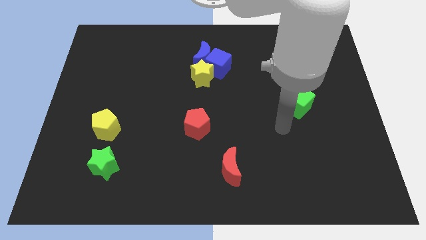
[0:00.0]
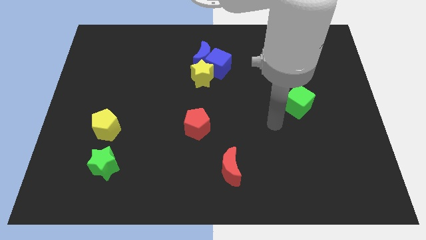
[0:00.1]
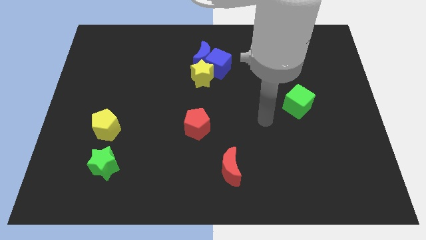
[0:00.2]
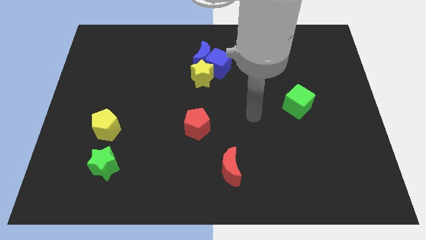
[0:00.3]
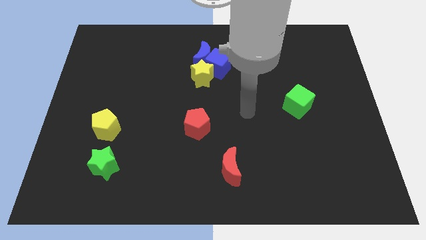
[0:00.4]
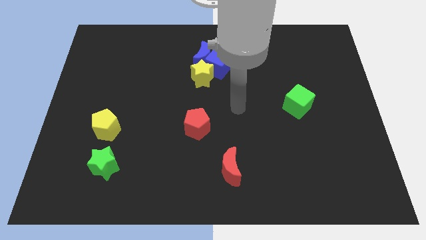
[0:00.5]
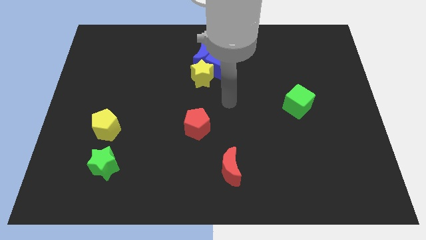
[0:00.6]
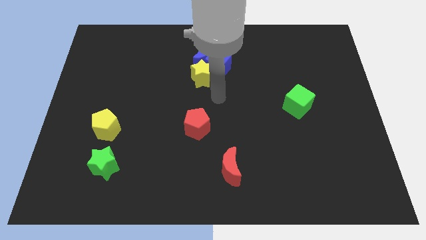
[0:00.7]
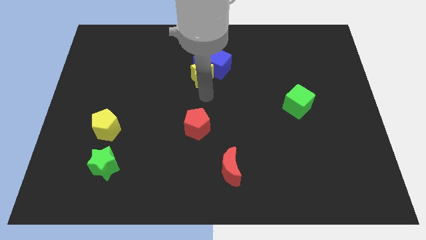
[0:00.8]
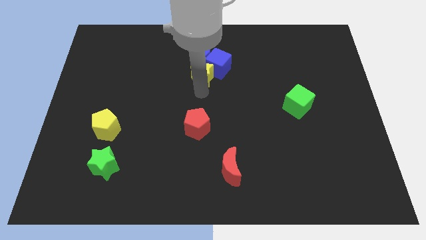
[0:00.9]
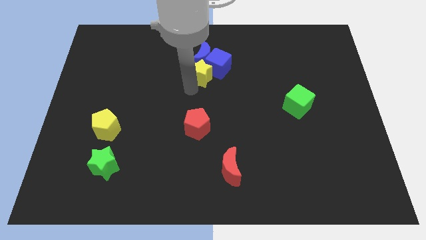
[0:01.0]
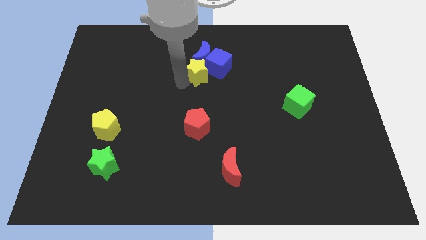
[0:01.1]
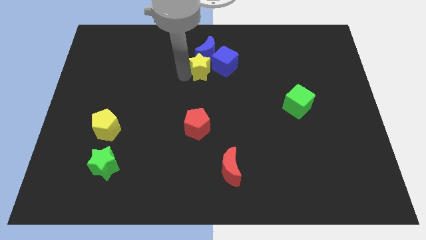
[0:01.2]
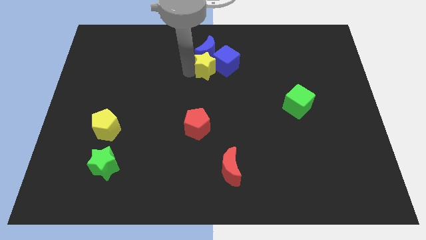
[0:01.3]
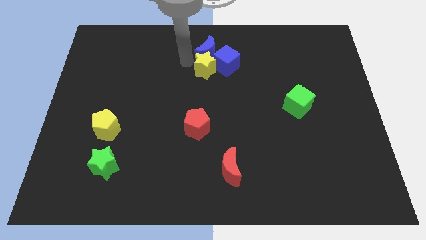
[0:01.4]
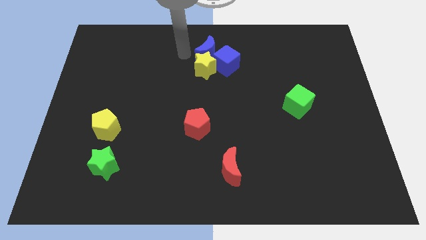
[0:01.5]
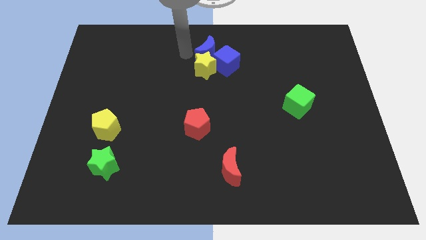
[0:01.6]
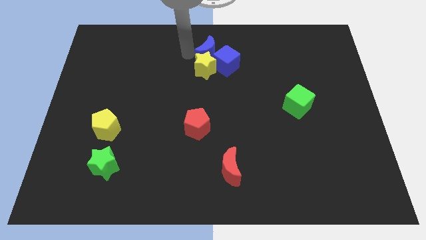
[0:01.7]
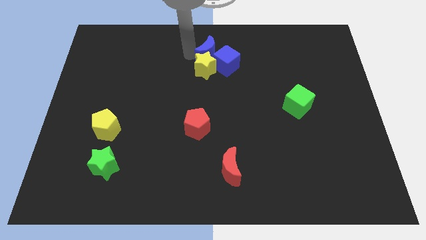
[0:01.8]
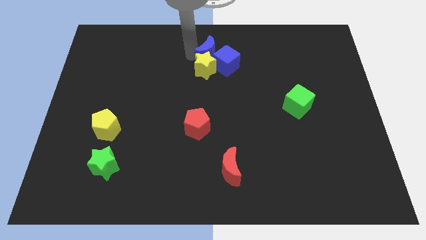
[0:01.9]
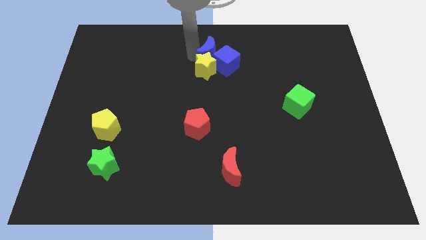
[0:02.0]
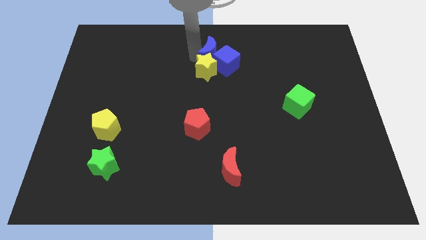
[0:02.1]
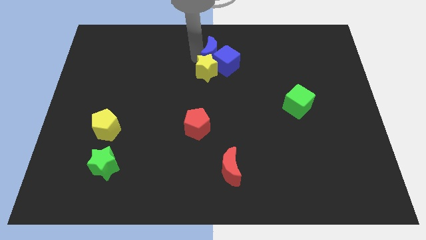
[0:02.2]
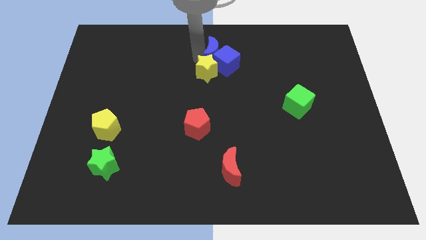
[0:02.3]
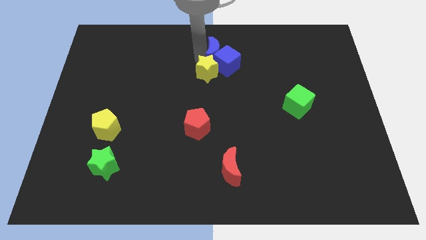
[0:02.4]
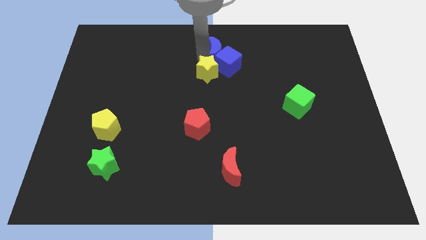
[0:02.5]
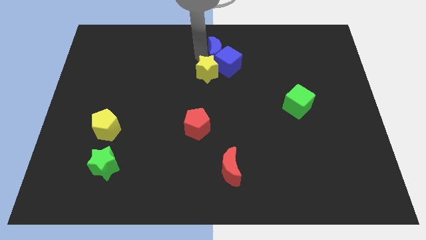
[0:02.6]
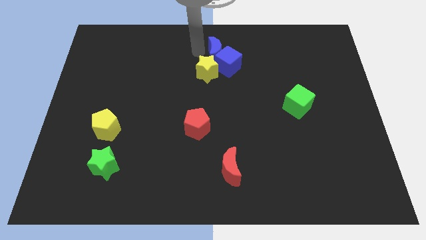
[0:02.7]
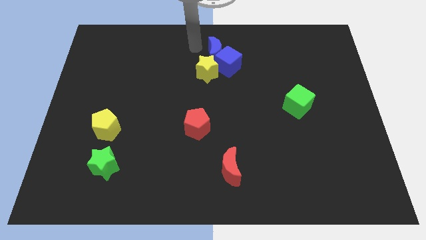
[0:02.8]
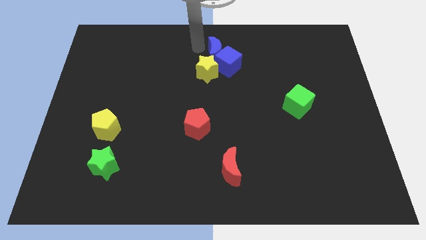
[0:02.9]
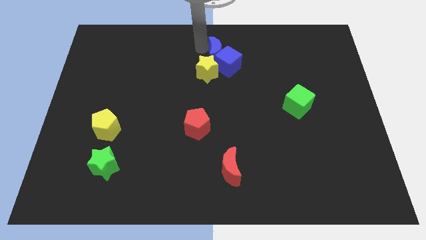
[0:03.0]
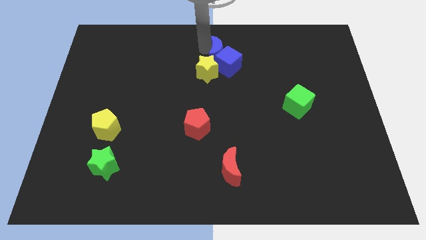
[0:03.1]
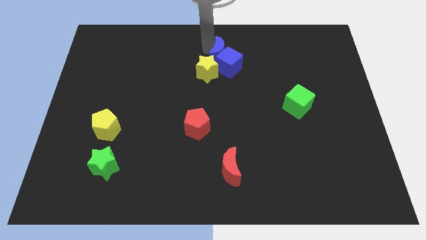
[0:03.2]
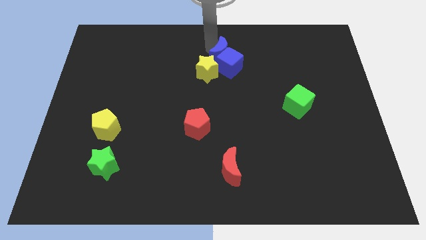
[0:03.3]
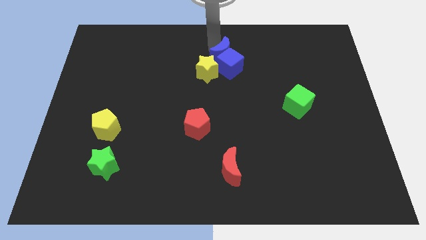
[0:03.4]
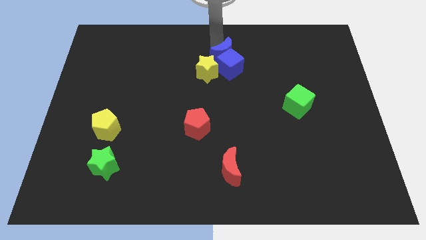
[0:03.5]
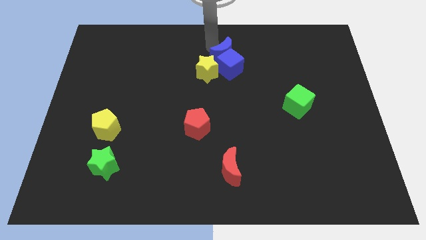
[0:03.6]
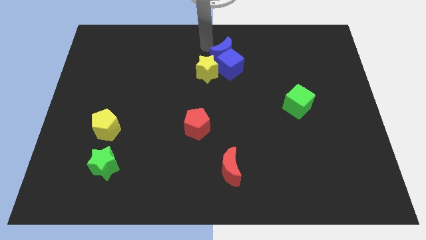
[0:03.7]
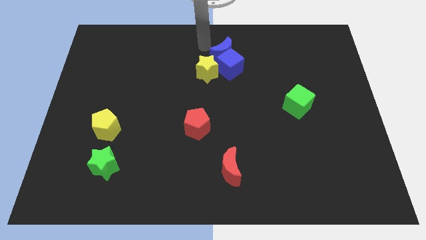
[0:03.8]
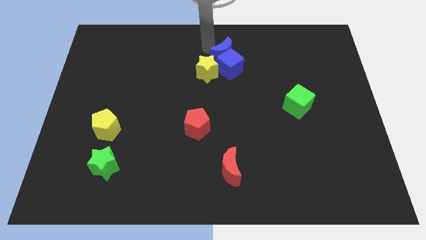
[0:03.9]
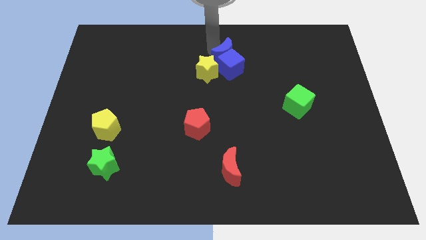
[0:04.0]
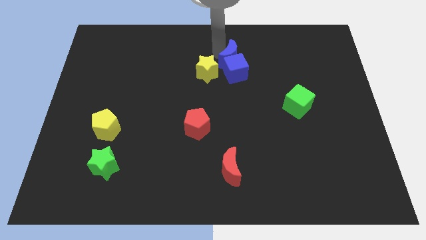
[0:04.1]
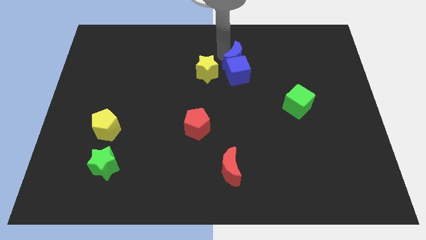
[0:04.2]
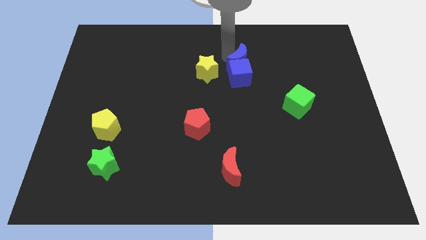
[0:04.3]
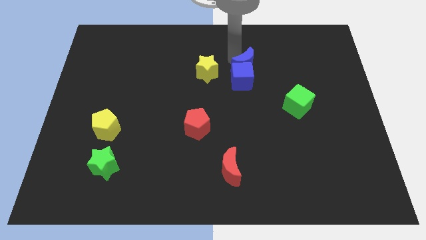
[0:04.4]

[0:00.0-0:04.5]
move the blue moon slightly downwards and right diagonally

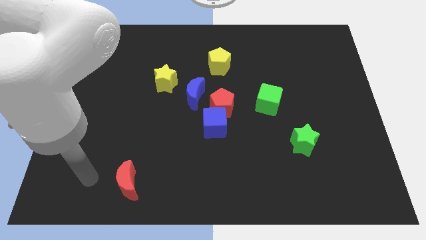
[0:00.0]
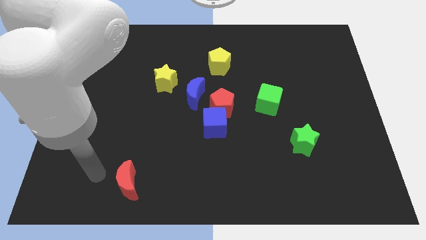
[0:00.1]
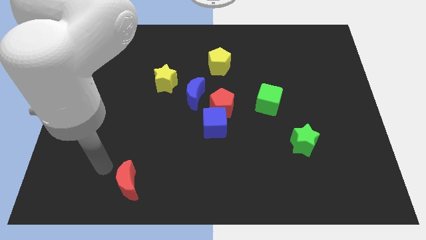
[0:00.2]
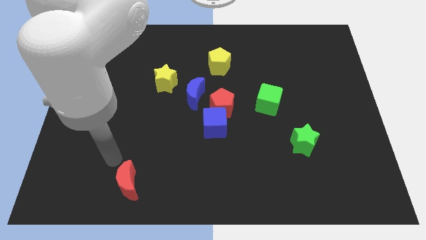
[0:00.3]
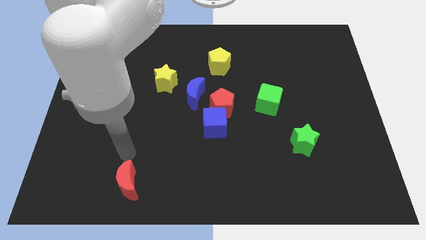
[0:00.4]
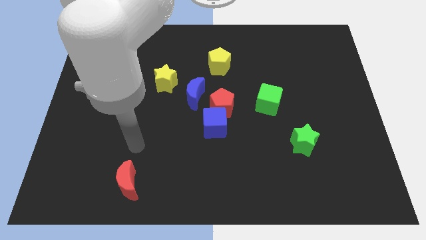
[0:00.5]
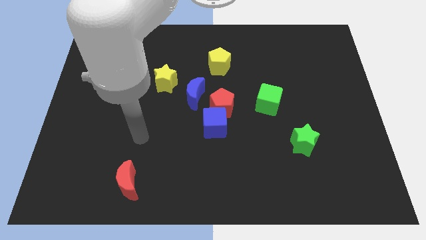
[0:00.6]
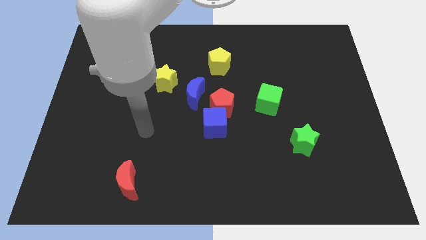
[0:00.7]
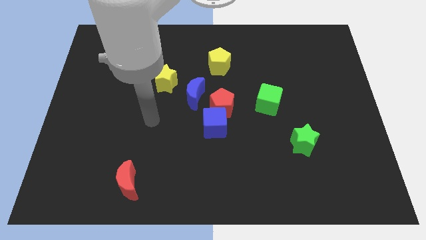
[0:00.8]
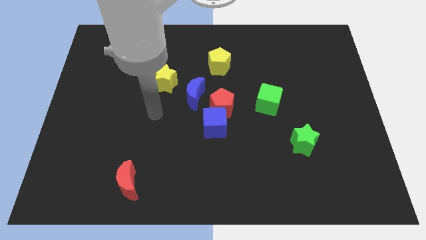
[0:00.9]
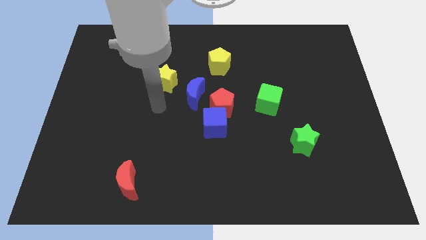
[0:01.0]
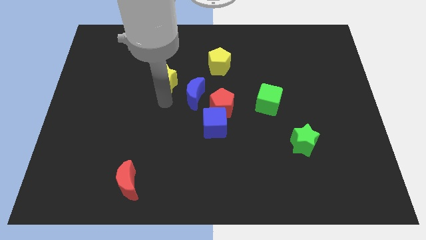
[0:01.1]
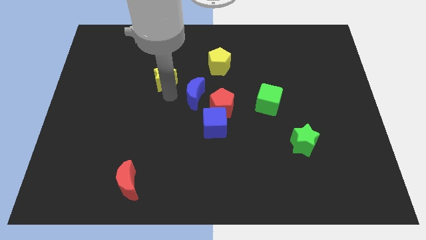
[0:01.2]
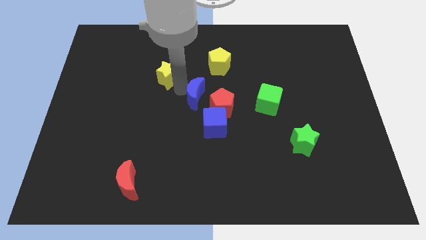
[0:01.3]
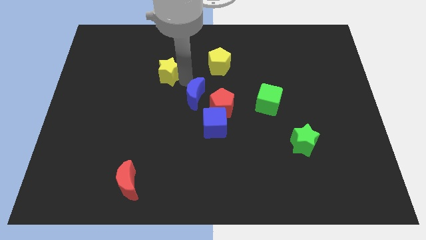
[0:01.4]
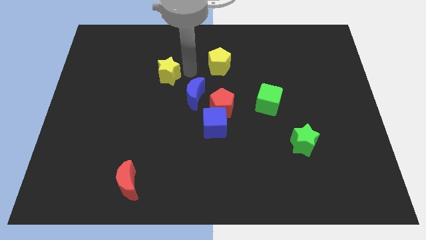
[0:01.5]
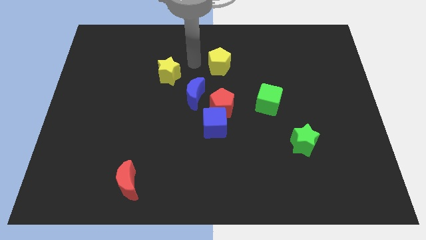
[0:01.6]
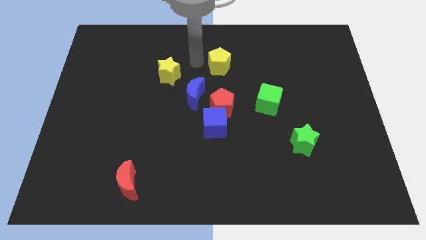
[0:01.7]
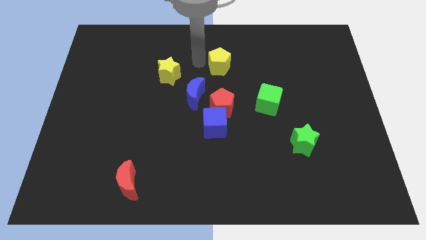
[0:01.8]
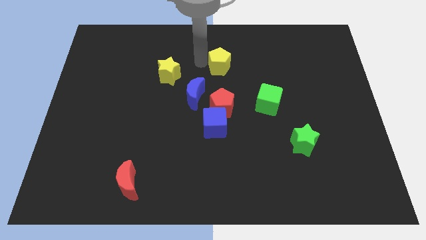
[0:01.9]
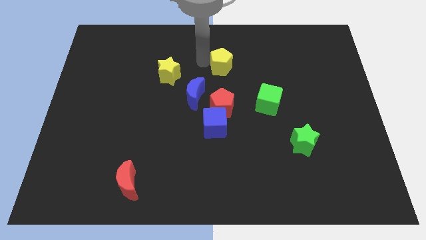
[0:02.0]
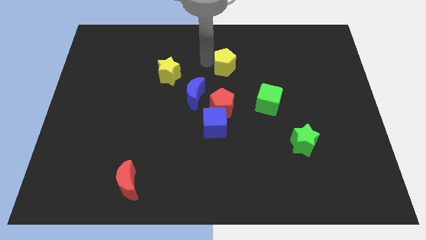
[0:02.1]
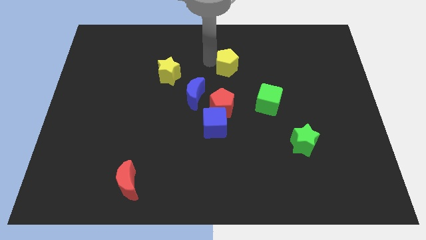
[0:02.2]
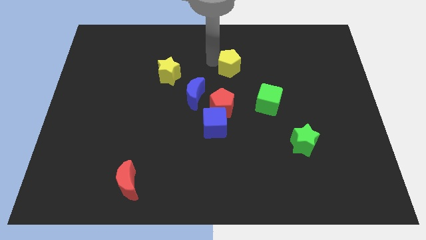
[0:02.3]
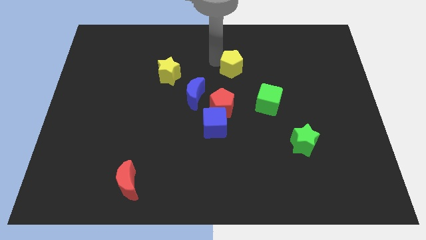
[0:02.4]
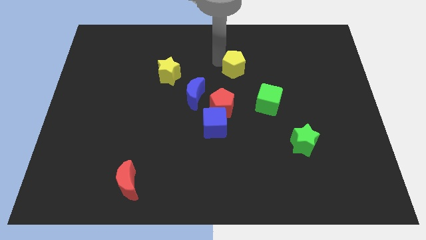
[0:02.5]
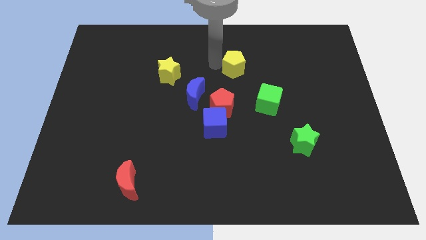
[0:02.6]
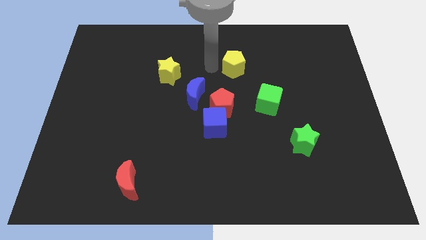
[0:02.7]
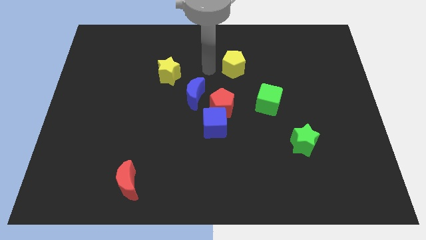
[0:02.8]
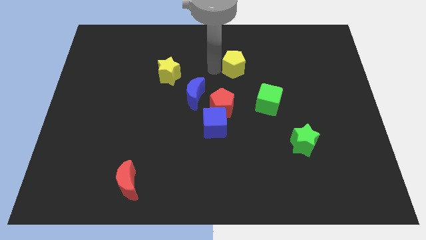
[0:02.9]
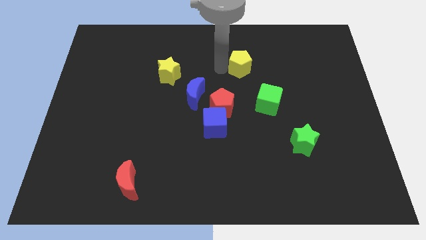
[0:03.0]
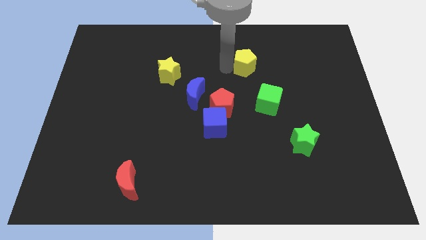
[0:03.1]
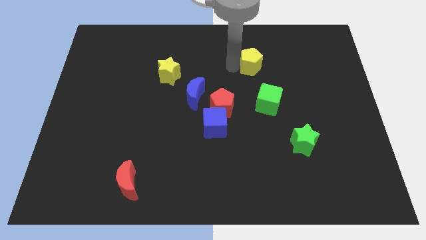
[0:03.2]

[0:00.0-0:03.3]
slide the yellow pentagon a little right

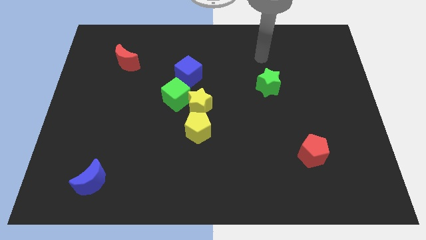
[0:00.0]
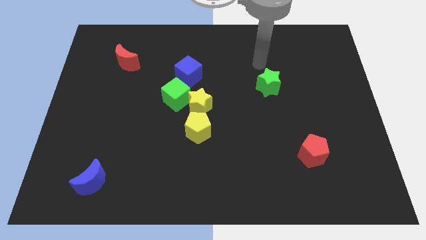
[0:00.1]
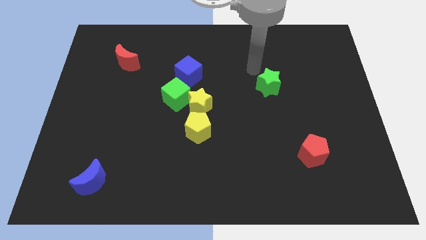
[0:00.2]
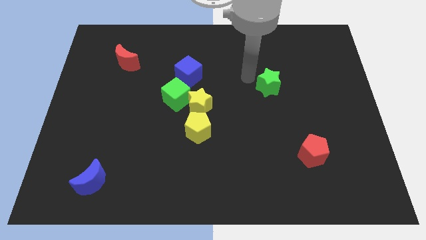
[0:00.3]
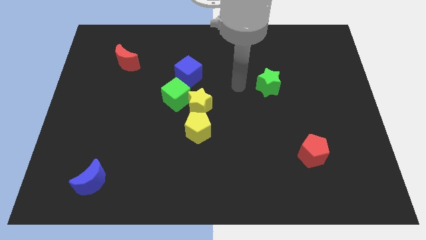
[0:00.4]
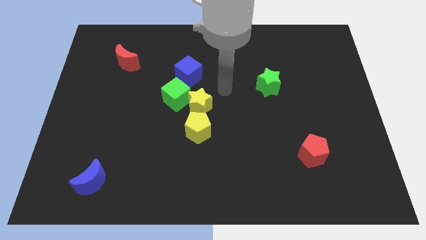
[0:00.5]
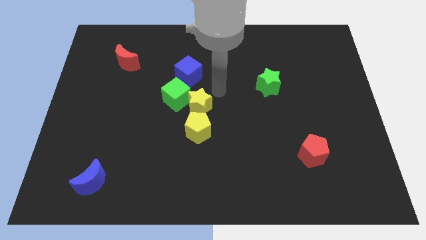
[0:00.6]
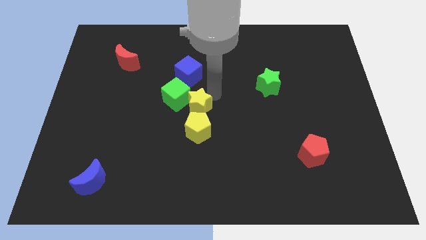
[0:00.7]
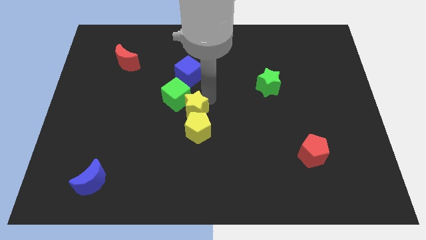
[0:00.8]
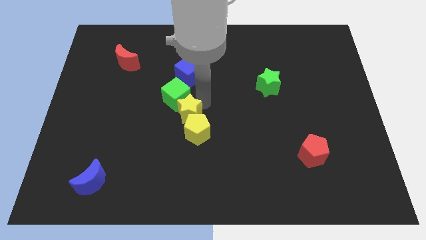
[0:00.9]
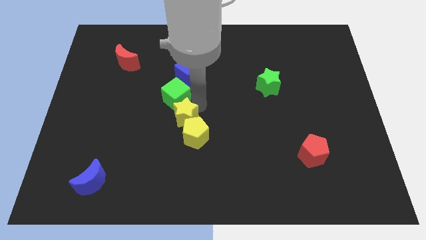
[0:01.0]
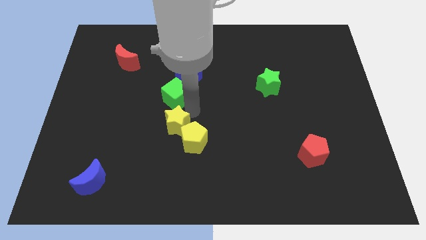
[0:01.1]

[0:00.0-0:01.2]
slide the yellow star diagonally down and to the left a bit
